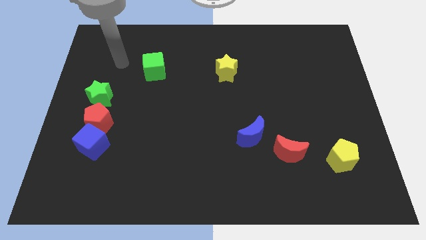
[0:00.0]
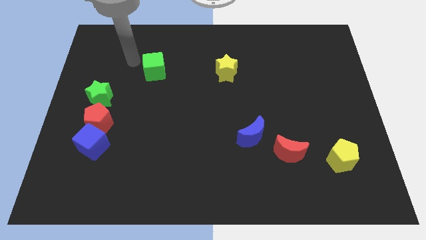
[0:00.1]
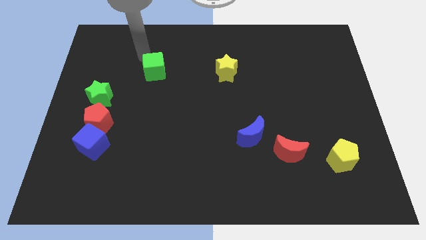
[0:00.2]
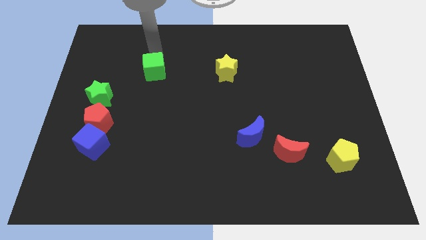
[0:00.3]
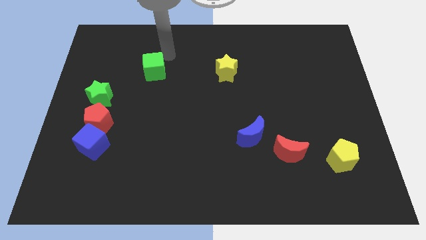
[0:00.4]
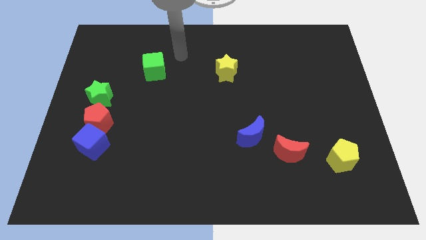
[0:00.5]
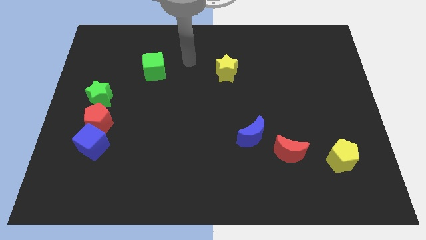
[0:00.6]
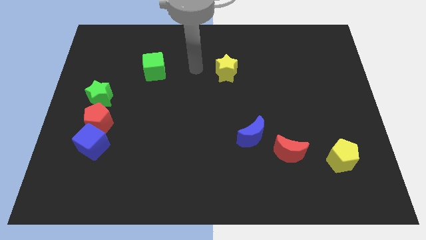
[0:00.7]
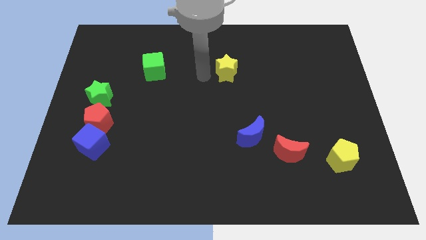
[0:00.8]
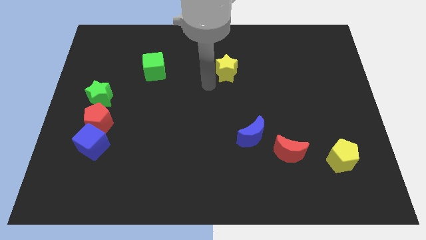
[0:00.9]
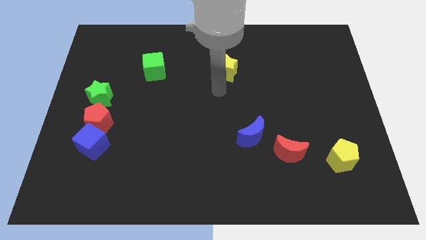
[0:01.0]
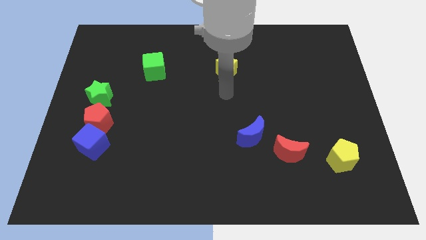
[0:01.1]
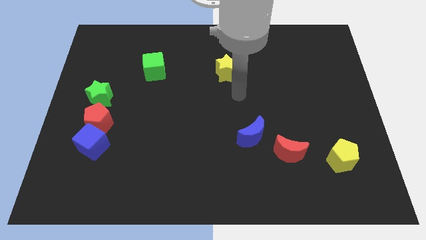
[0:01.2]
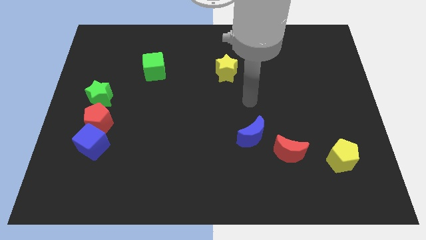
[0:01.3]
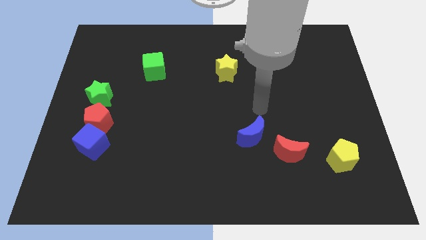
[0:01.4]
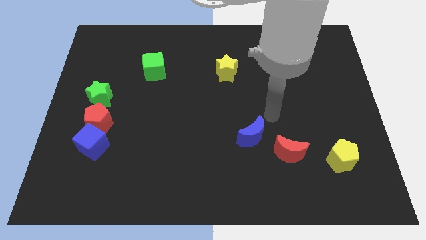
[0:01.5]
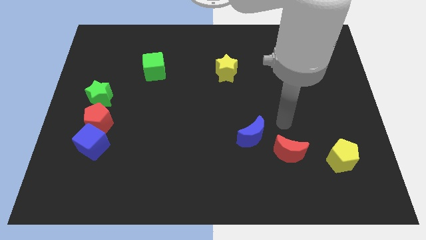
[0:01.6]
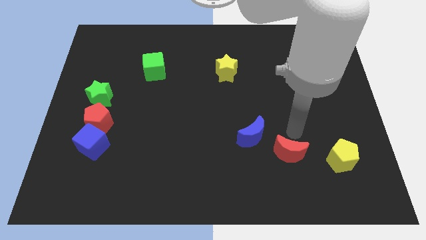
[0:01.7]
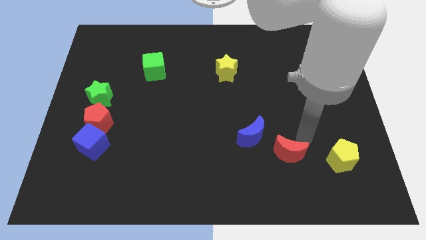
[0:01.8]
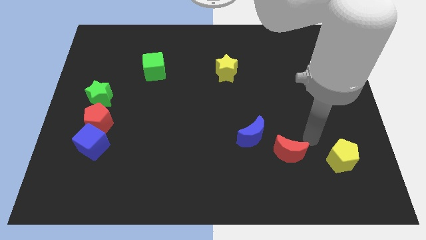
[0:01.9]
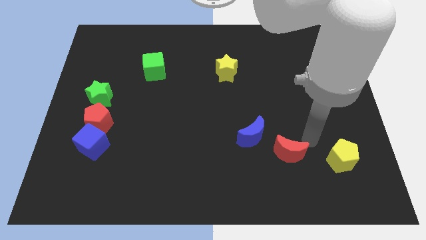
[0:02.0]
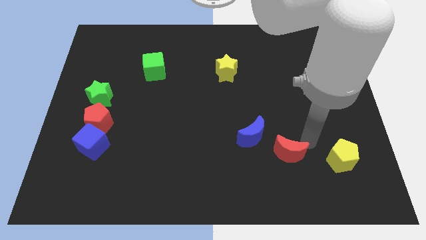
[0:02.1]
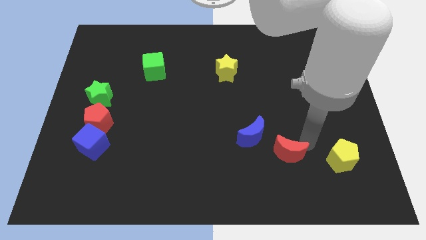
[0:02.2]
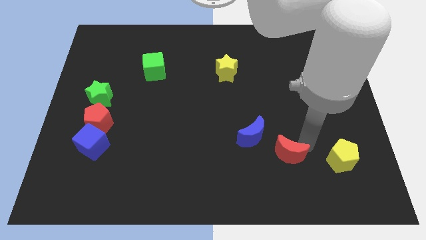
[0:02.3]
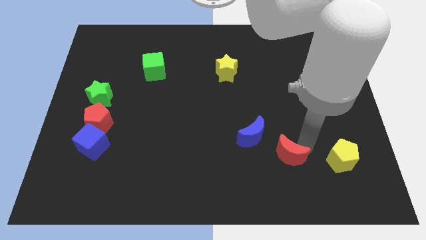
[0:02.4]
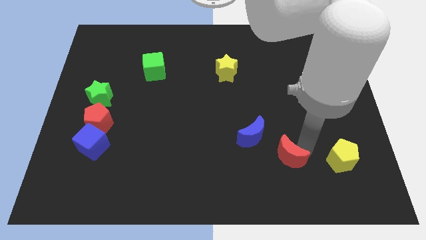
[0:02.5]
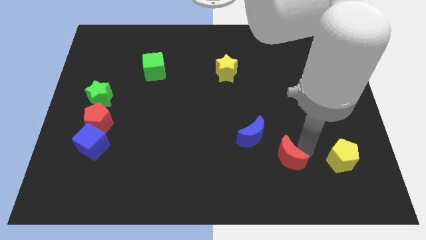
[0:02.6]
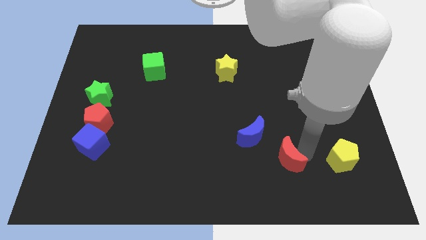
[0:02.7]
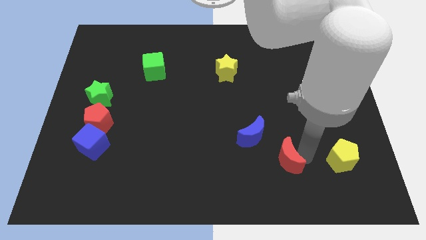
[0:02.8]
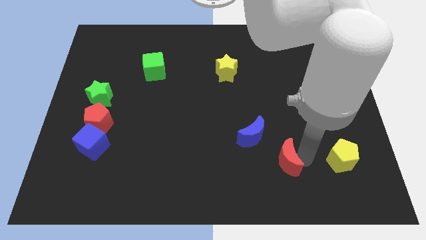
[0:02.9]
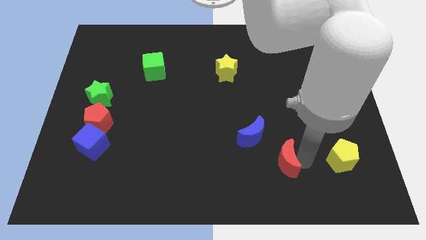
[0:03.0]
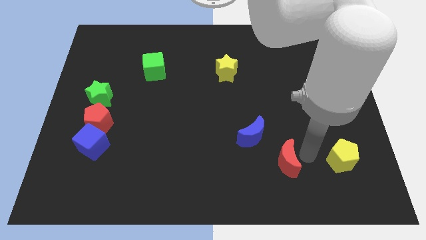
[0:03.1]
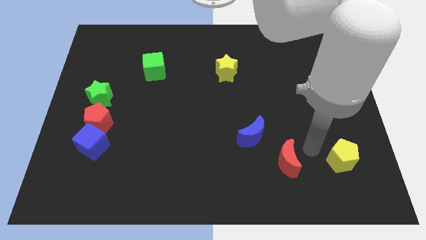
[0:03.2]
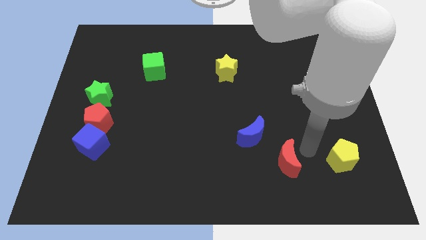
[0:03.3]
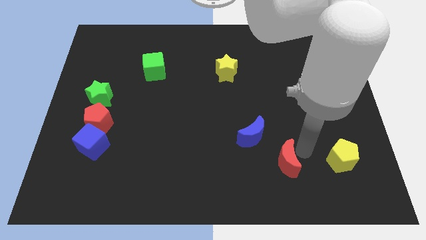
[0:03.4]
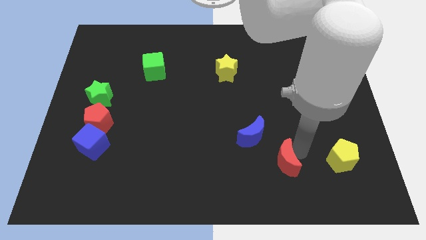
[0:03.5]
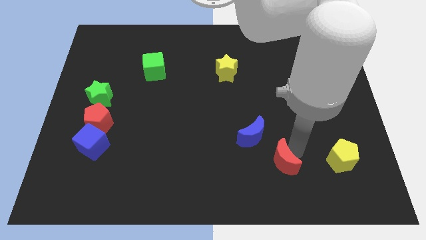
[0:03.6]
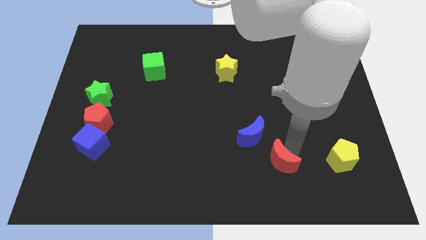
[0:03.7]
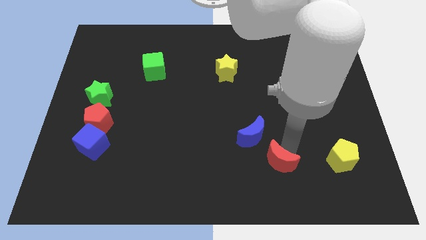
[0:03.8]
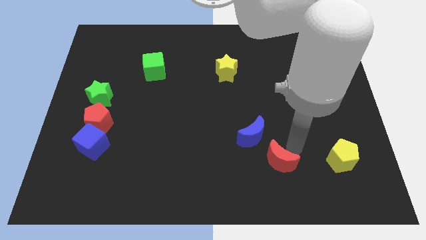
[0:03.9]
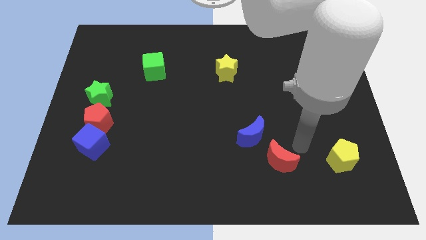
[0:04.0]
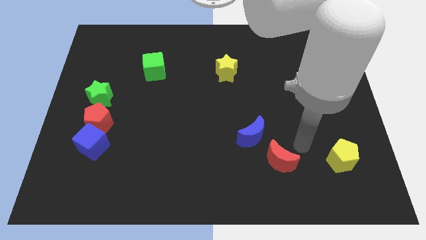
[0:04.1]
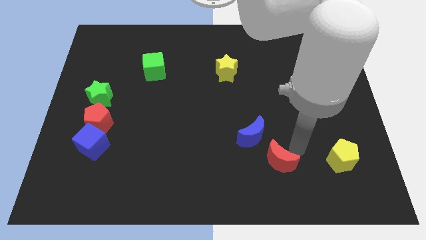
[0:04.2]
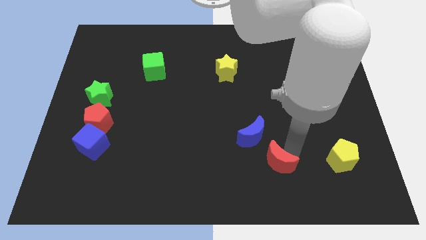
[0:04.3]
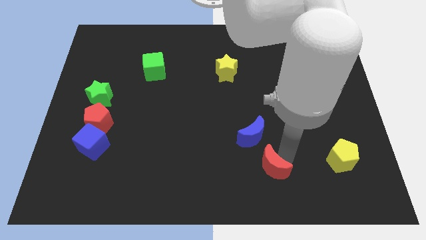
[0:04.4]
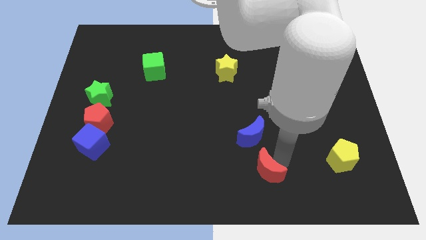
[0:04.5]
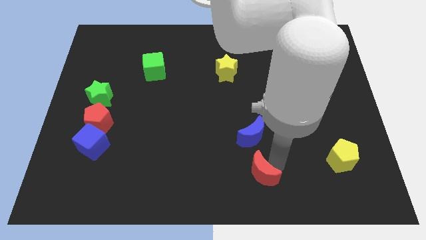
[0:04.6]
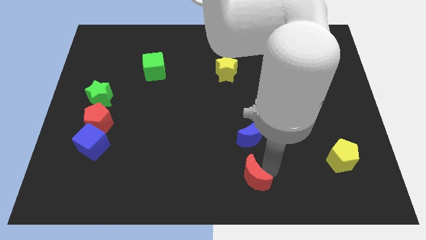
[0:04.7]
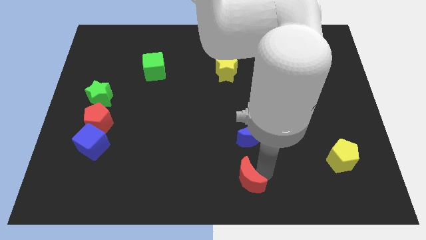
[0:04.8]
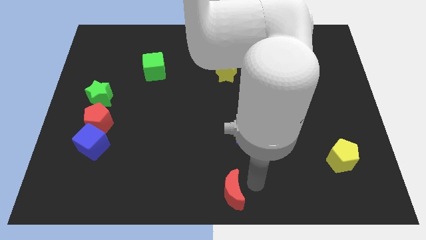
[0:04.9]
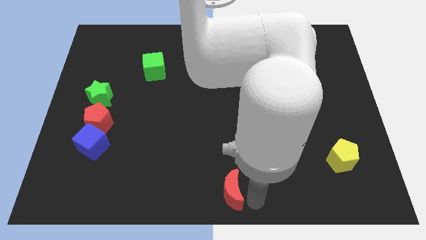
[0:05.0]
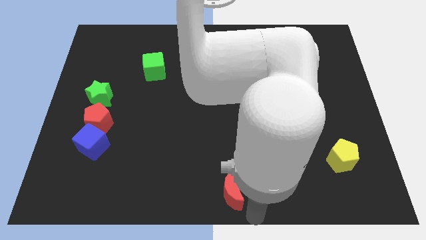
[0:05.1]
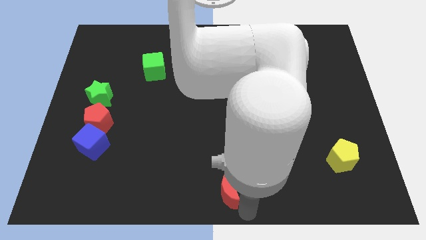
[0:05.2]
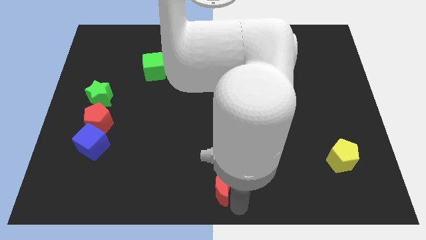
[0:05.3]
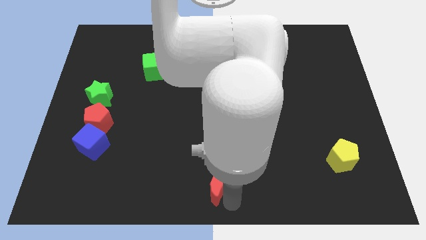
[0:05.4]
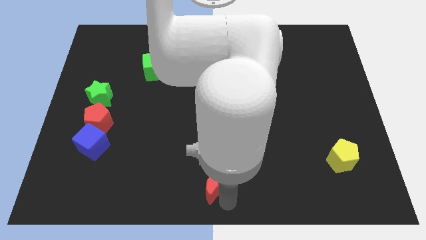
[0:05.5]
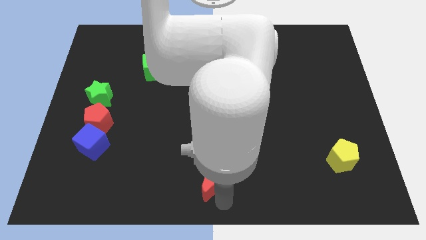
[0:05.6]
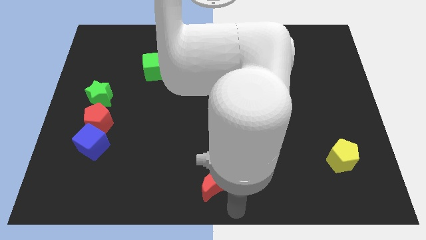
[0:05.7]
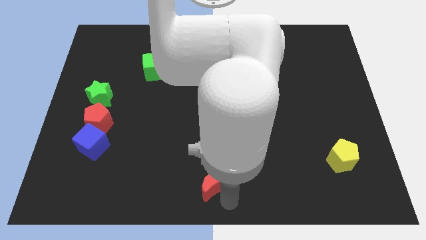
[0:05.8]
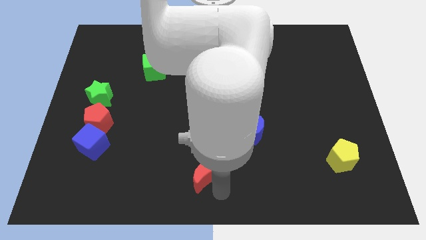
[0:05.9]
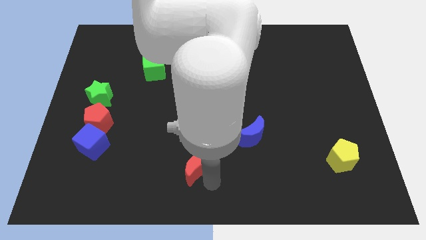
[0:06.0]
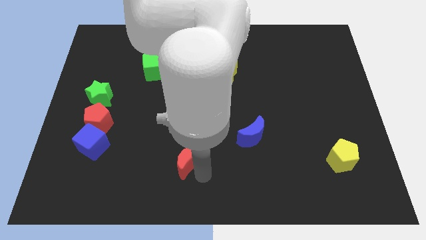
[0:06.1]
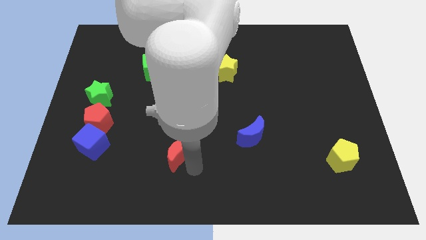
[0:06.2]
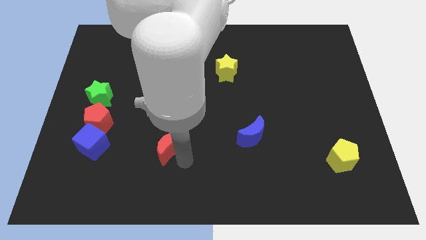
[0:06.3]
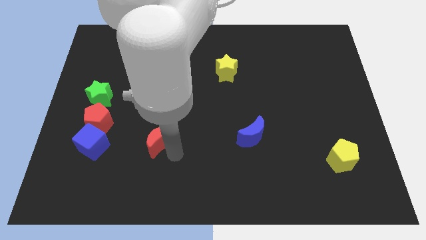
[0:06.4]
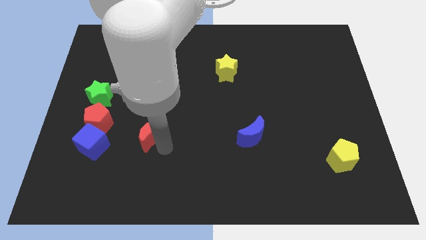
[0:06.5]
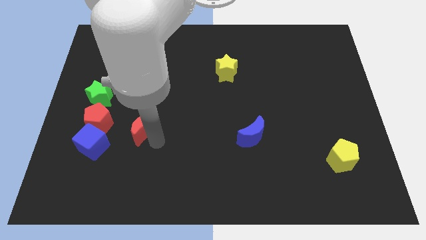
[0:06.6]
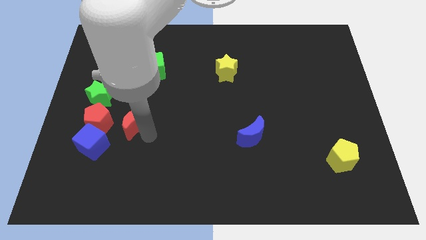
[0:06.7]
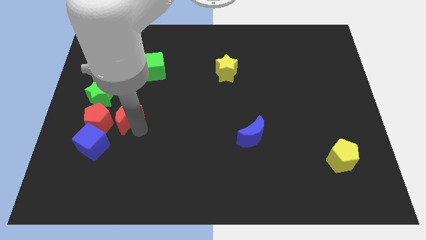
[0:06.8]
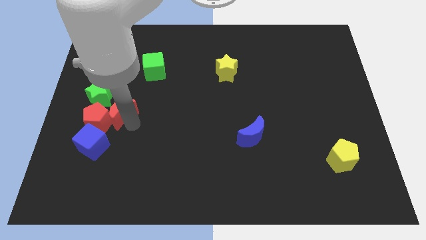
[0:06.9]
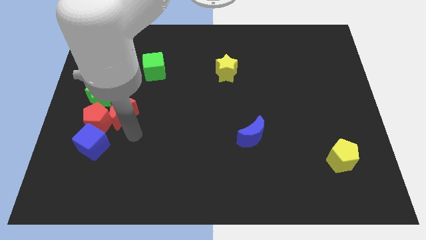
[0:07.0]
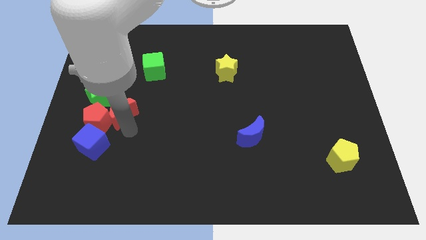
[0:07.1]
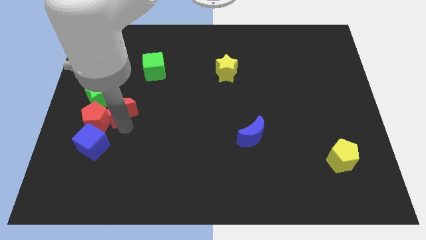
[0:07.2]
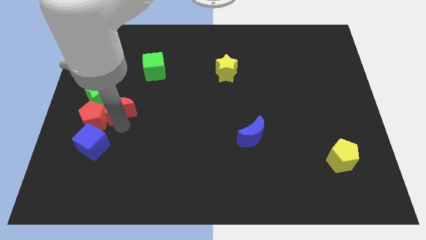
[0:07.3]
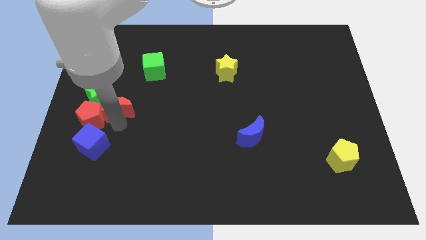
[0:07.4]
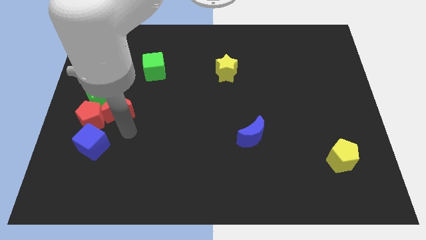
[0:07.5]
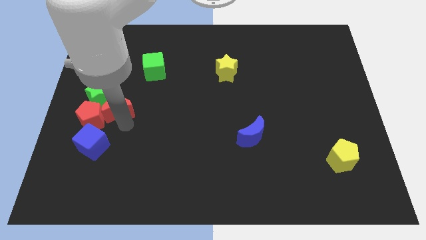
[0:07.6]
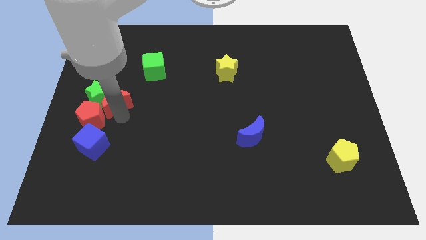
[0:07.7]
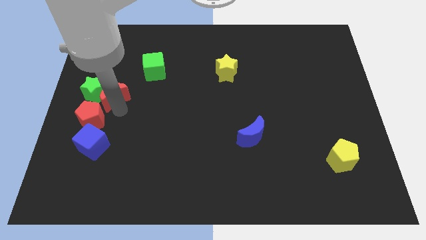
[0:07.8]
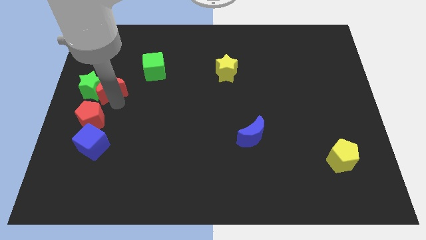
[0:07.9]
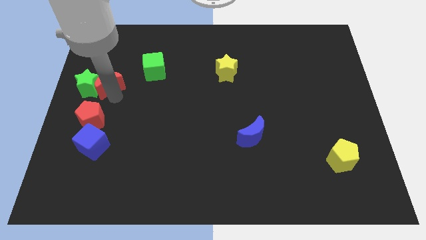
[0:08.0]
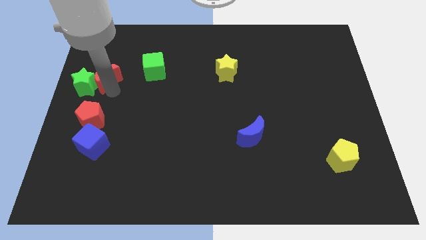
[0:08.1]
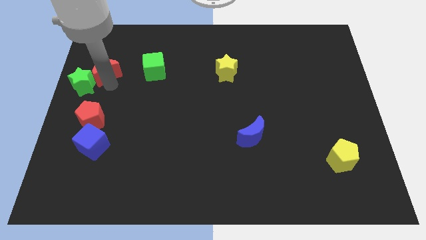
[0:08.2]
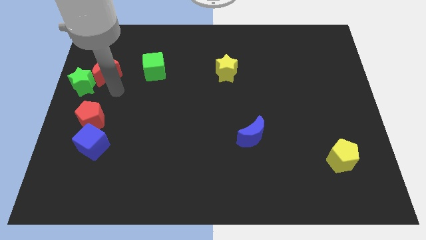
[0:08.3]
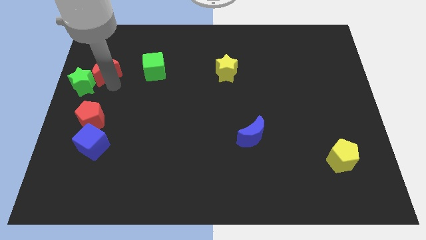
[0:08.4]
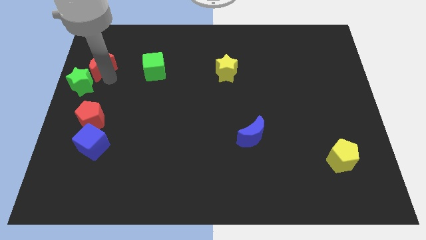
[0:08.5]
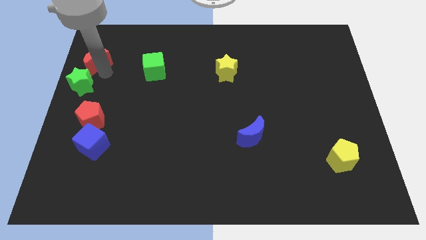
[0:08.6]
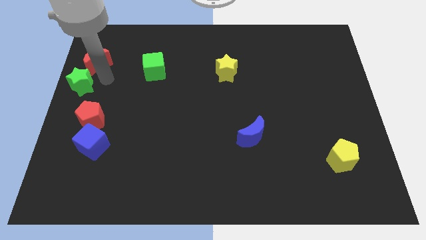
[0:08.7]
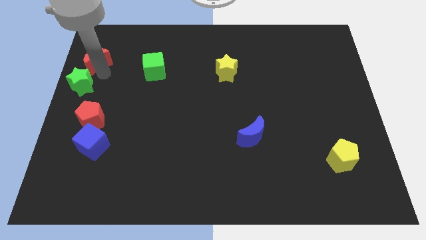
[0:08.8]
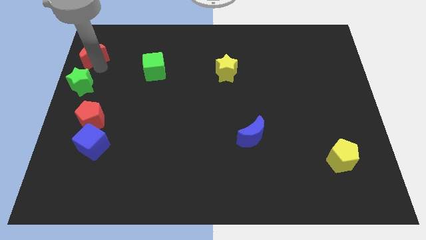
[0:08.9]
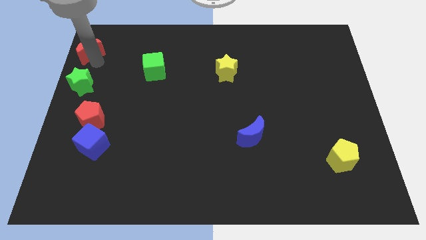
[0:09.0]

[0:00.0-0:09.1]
slide the red moon to the top left corner
